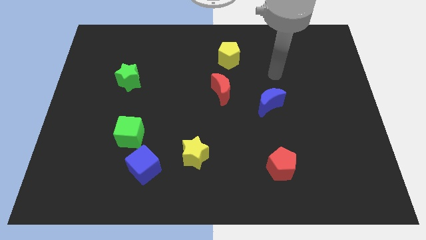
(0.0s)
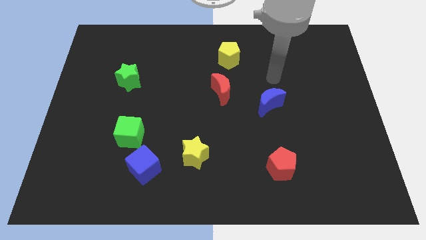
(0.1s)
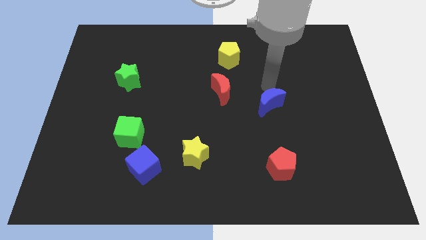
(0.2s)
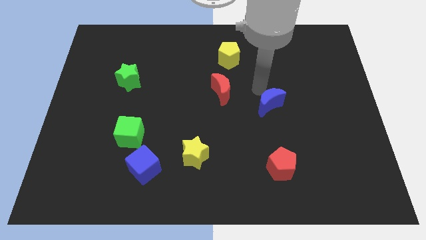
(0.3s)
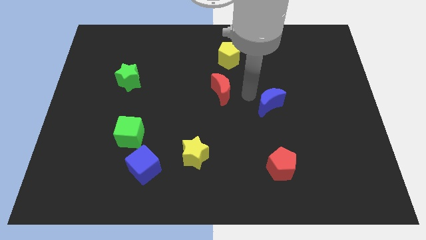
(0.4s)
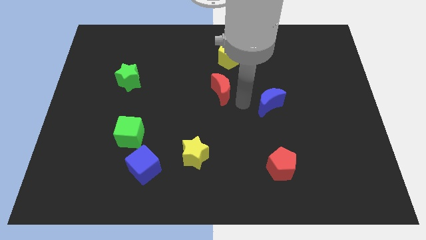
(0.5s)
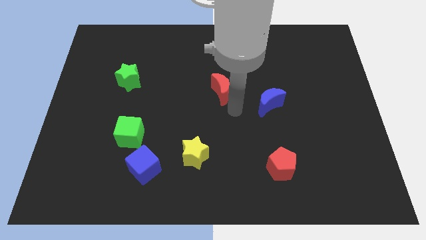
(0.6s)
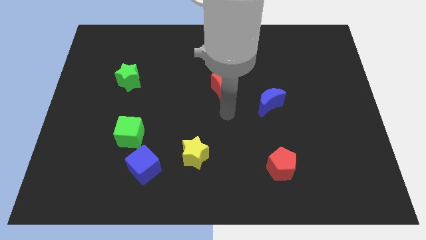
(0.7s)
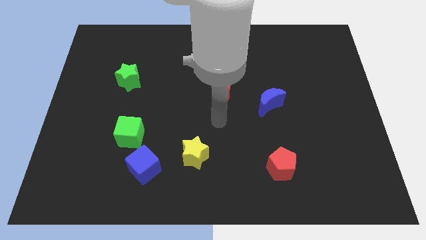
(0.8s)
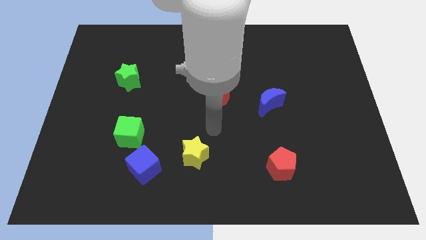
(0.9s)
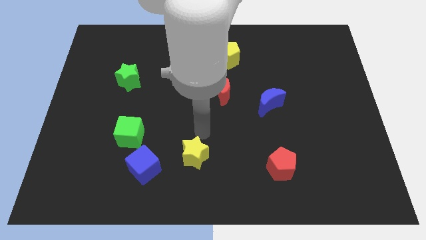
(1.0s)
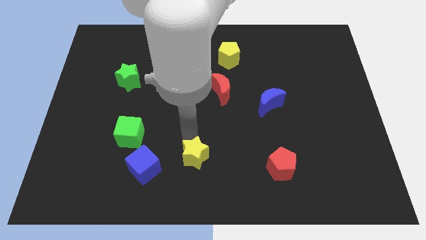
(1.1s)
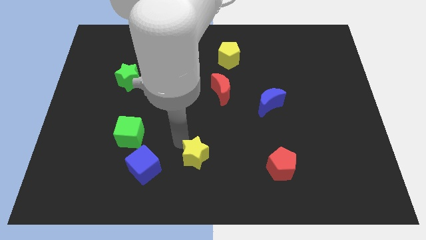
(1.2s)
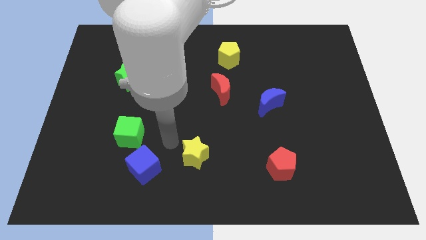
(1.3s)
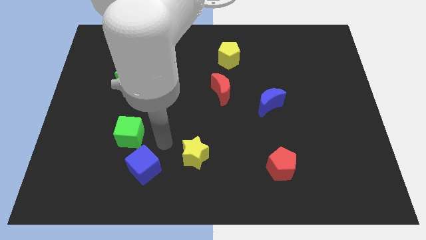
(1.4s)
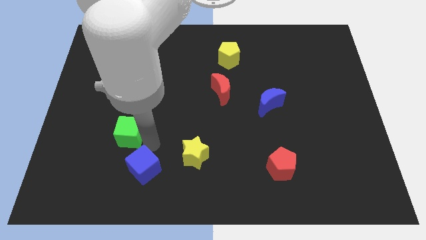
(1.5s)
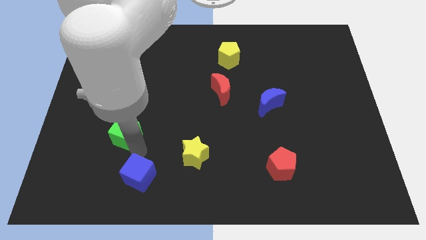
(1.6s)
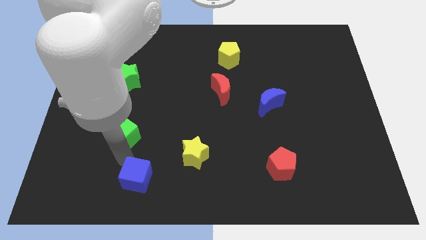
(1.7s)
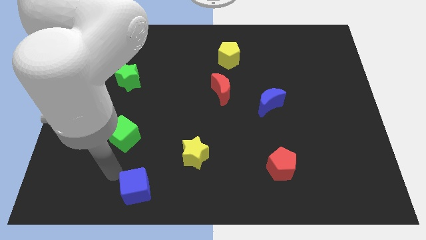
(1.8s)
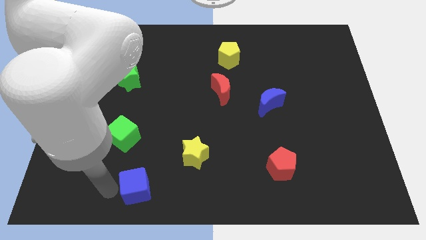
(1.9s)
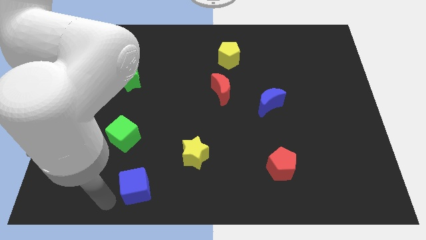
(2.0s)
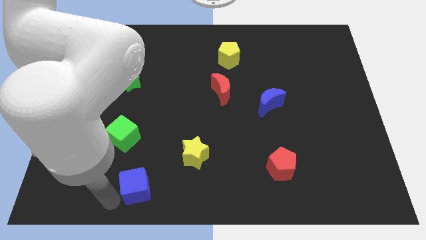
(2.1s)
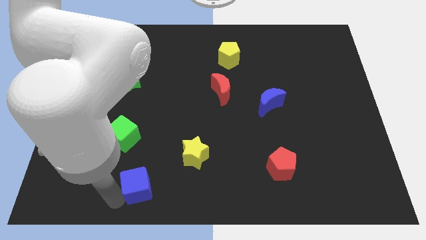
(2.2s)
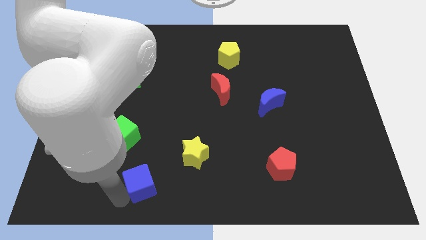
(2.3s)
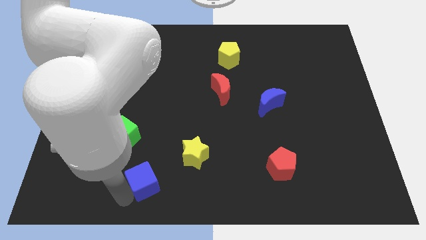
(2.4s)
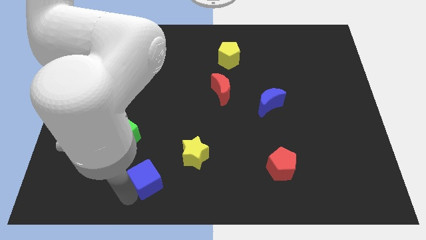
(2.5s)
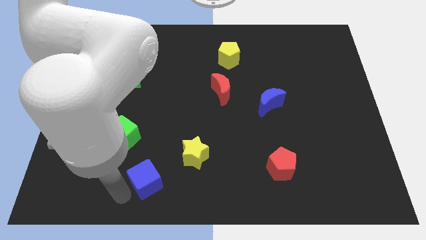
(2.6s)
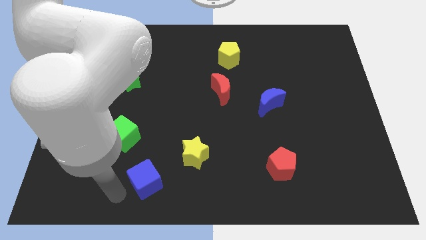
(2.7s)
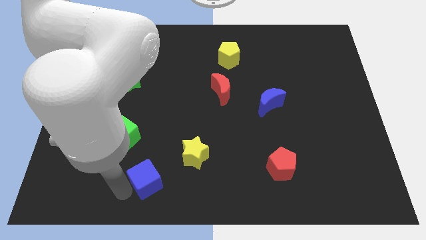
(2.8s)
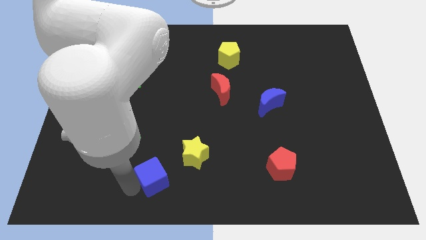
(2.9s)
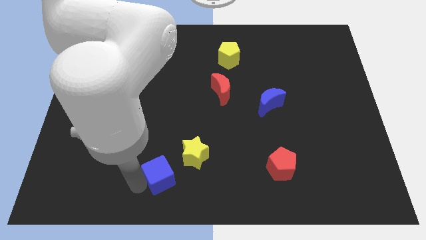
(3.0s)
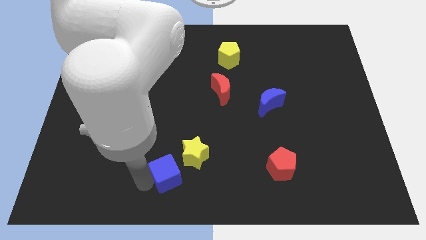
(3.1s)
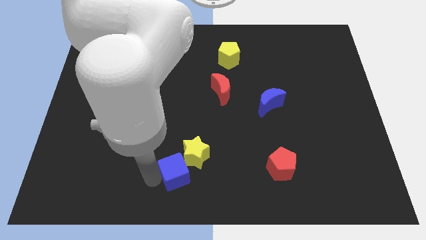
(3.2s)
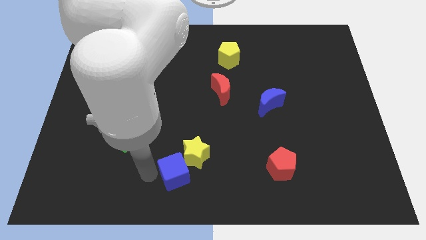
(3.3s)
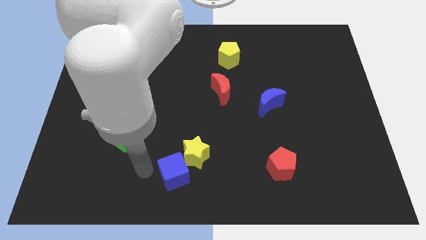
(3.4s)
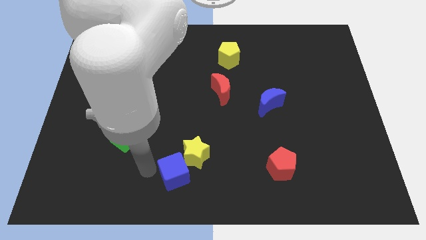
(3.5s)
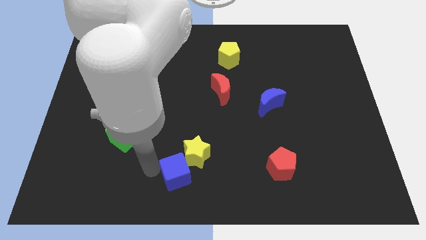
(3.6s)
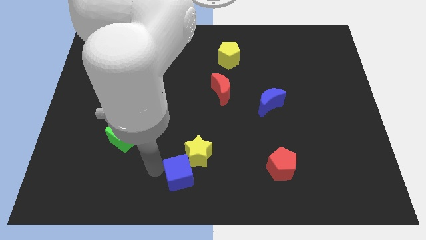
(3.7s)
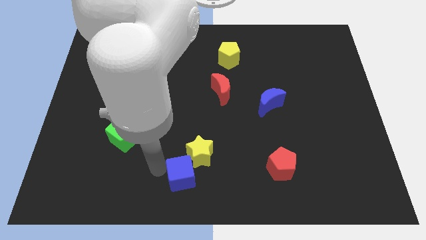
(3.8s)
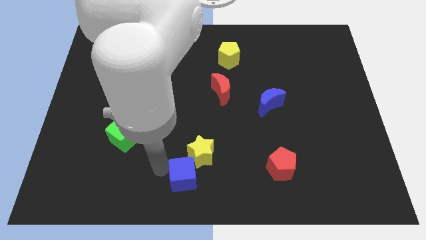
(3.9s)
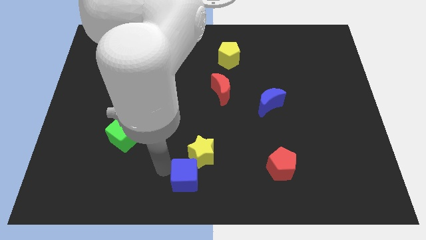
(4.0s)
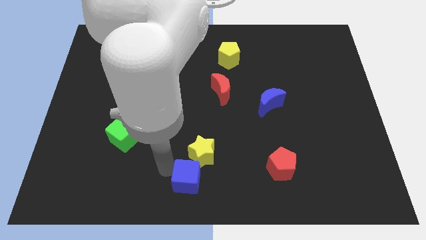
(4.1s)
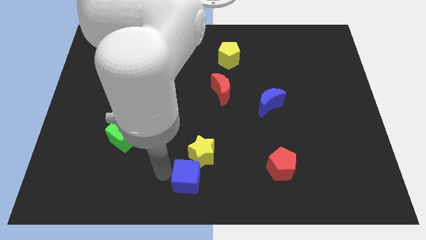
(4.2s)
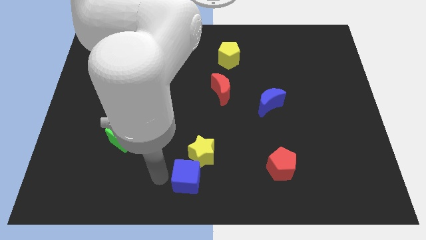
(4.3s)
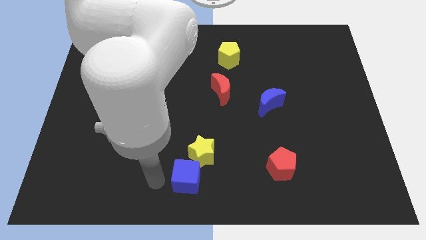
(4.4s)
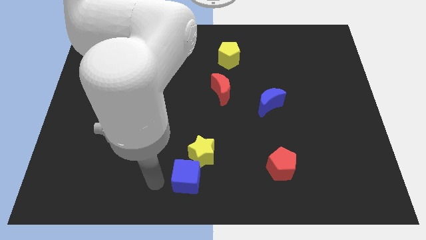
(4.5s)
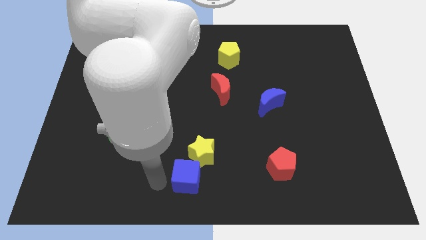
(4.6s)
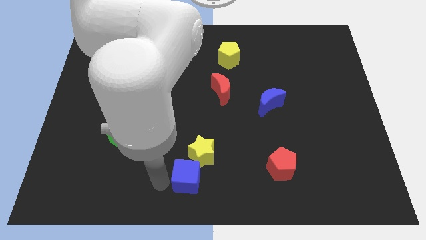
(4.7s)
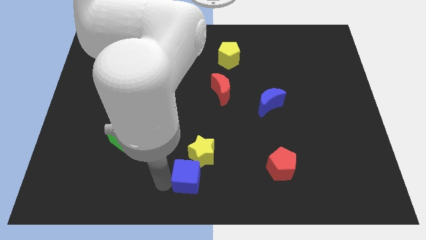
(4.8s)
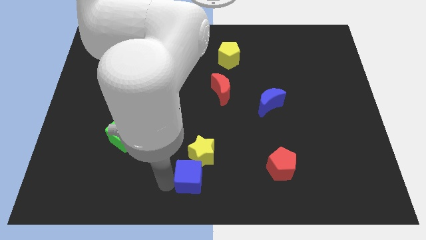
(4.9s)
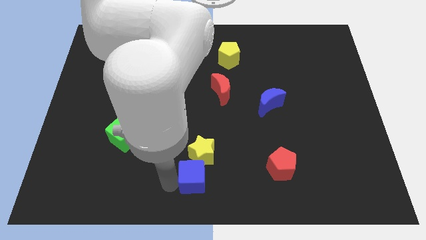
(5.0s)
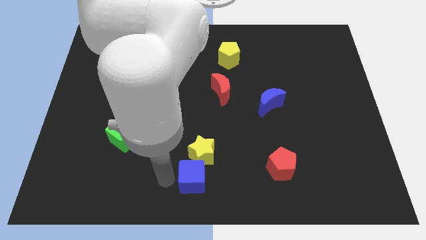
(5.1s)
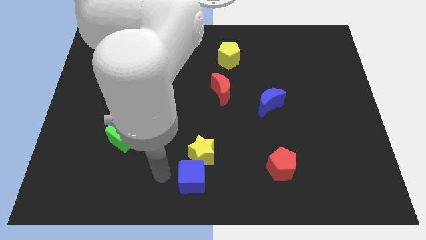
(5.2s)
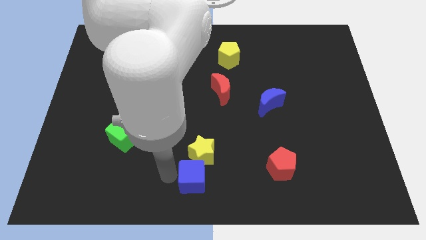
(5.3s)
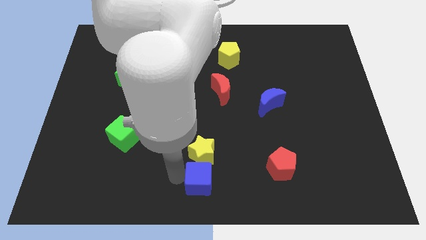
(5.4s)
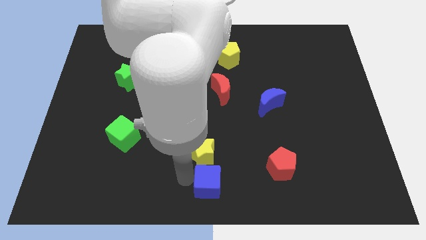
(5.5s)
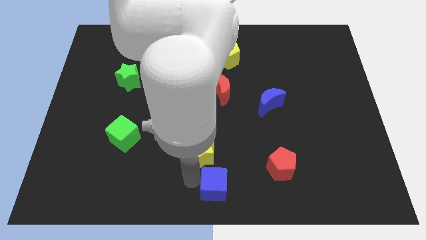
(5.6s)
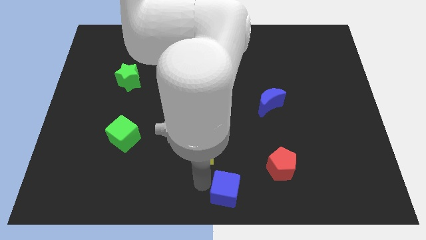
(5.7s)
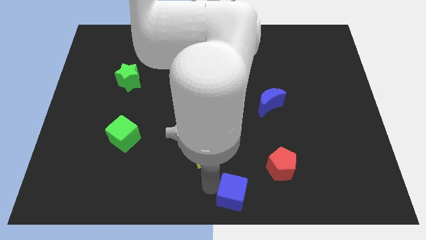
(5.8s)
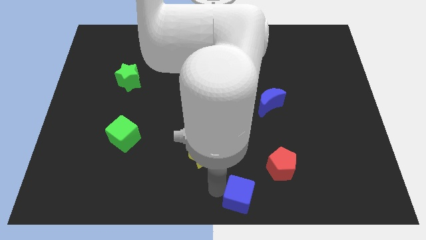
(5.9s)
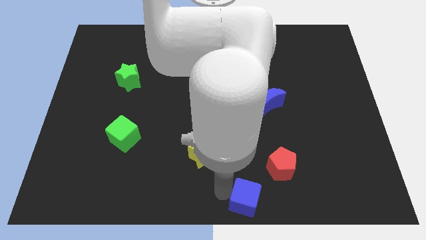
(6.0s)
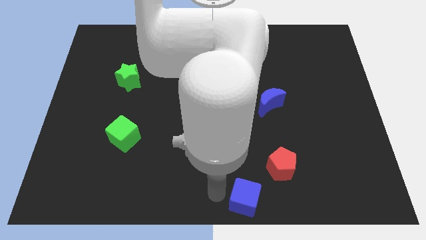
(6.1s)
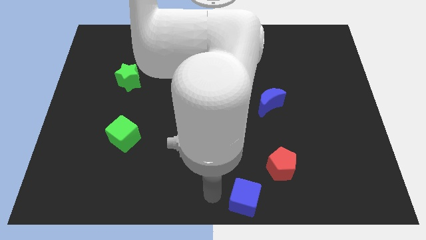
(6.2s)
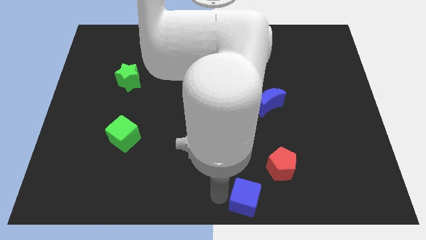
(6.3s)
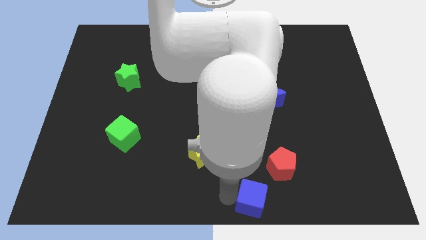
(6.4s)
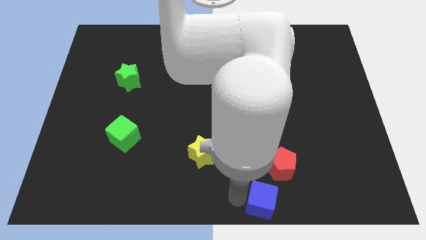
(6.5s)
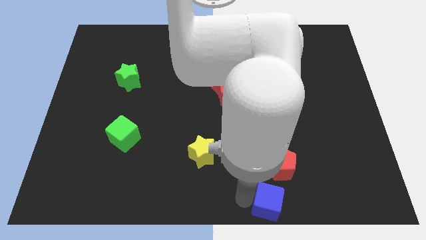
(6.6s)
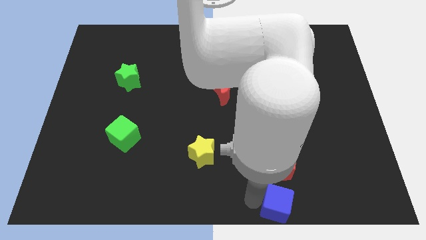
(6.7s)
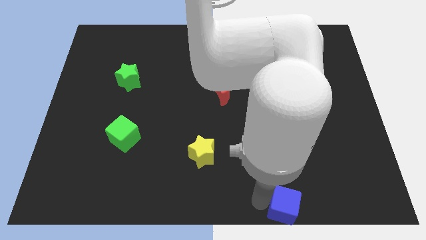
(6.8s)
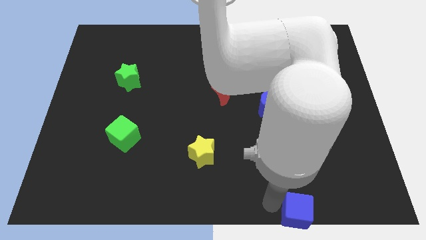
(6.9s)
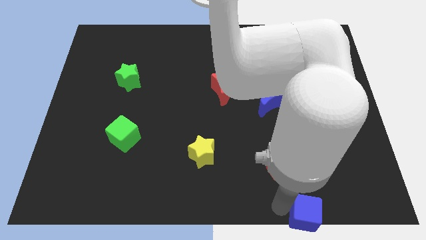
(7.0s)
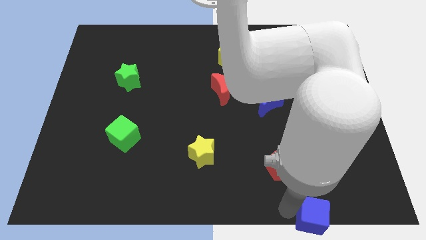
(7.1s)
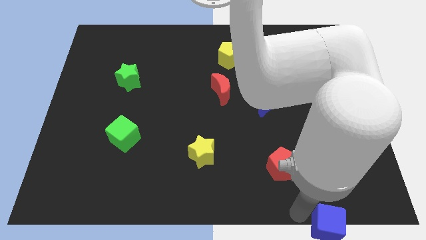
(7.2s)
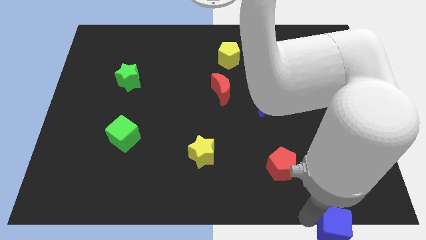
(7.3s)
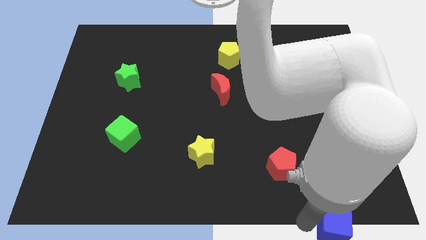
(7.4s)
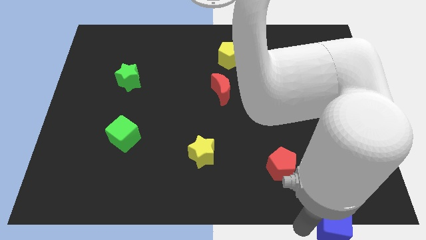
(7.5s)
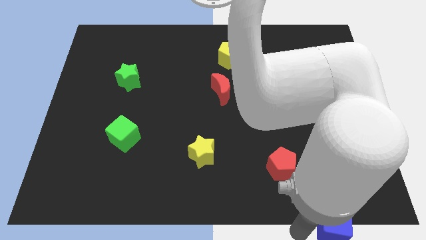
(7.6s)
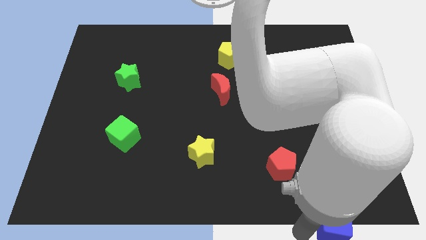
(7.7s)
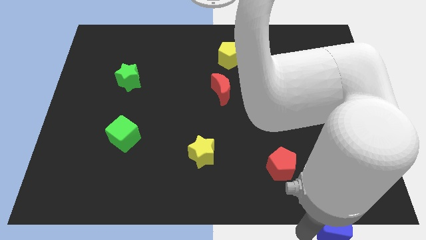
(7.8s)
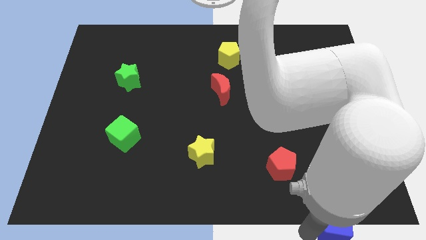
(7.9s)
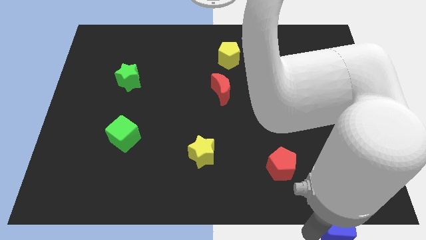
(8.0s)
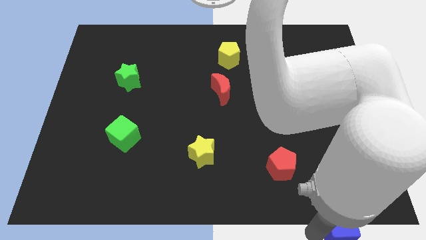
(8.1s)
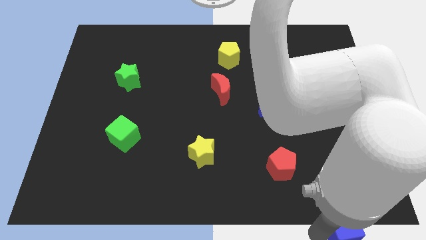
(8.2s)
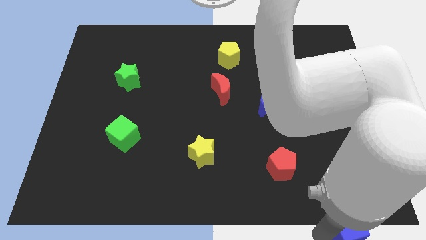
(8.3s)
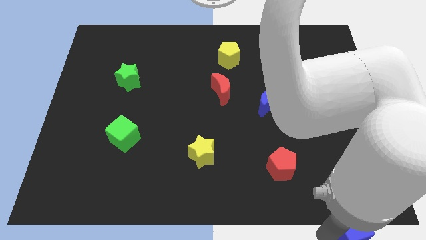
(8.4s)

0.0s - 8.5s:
slide the blue cube to the lower right corner
